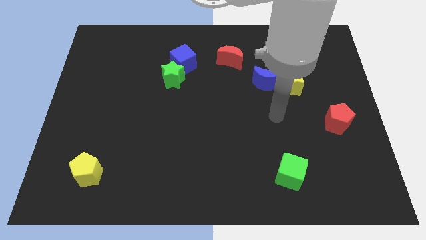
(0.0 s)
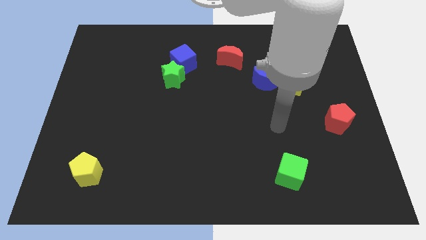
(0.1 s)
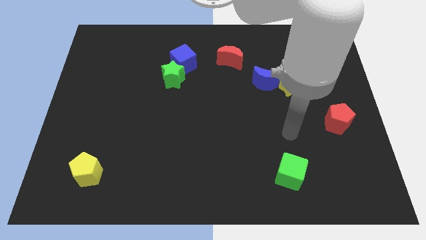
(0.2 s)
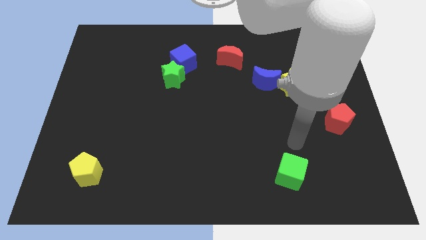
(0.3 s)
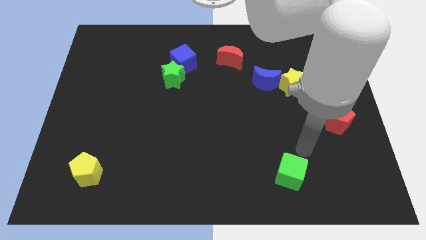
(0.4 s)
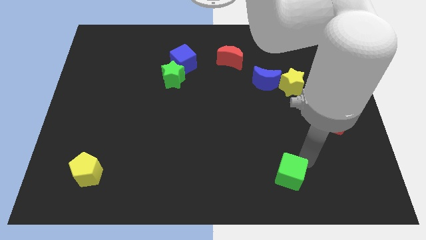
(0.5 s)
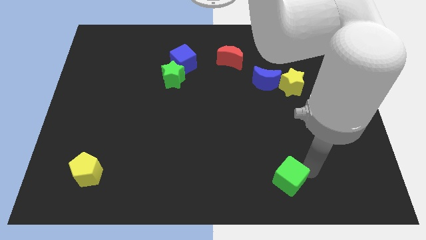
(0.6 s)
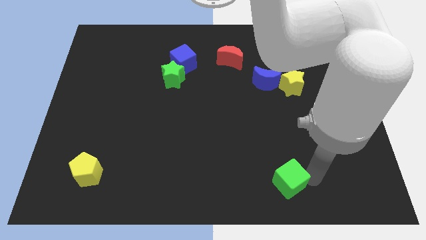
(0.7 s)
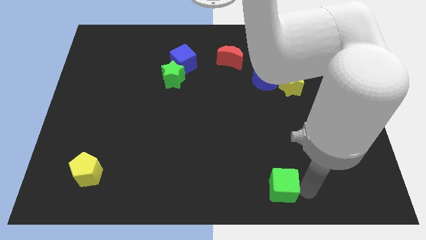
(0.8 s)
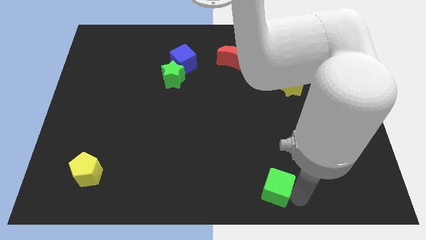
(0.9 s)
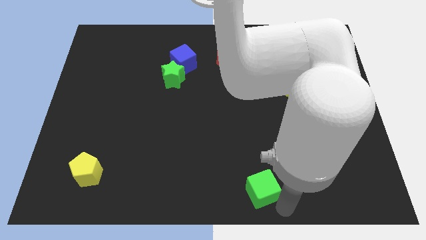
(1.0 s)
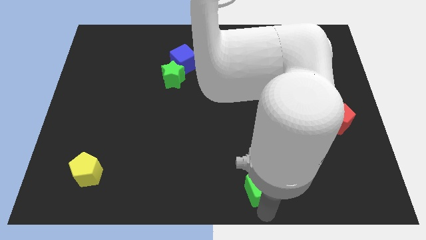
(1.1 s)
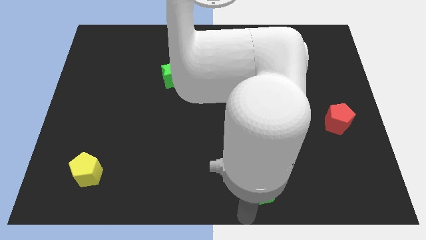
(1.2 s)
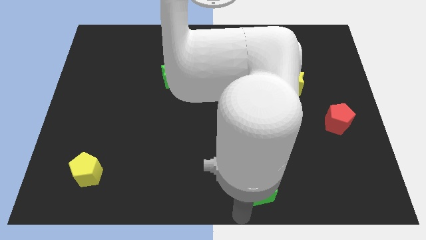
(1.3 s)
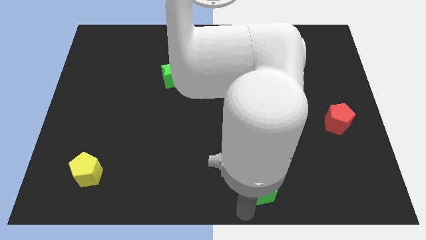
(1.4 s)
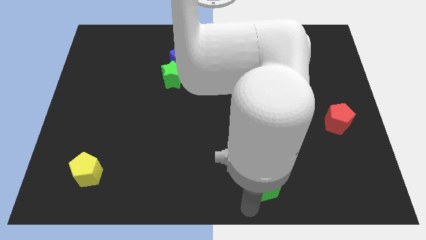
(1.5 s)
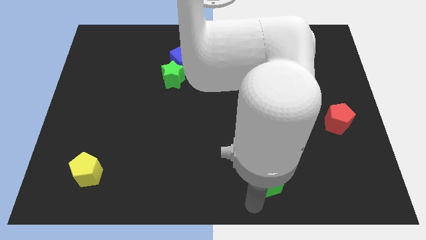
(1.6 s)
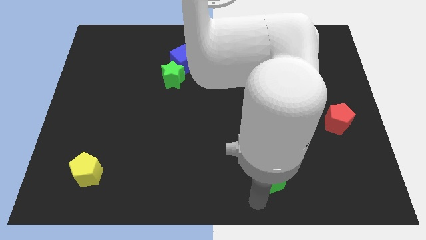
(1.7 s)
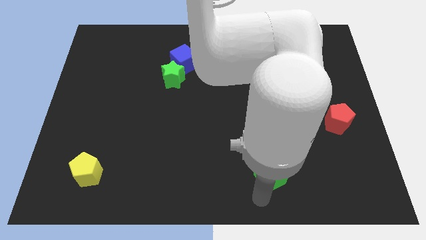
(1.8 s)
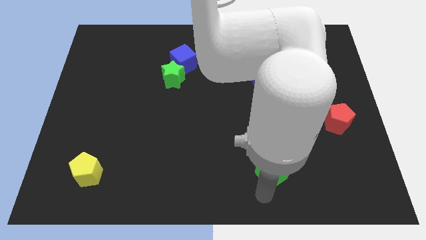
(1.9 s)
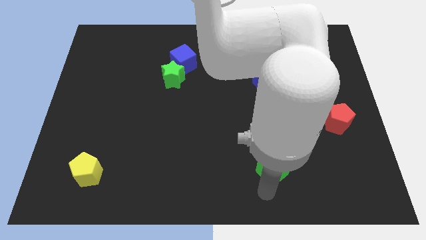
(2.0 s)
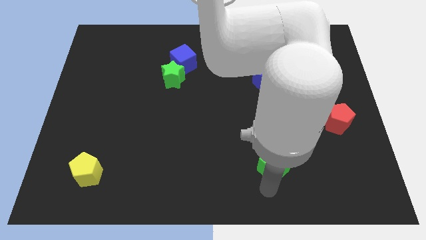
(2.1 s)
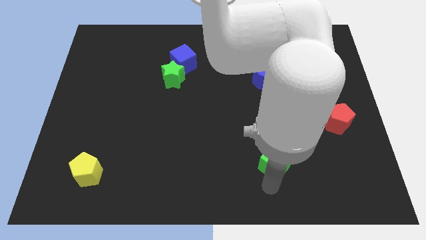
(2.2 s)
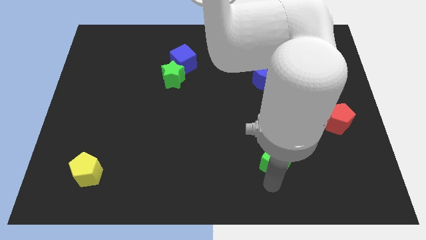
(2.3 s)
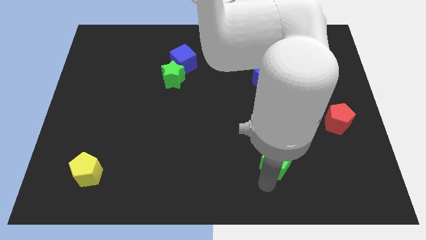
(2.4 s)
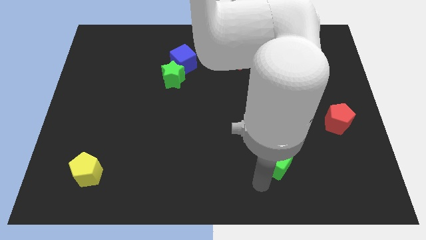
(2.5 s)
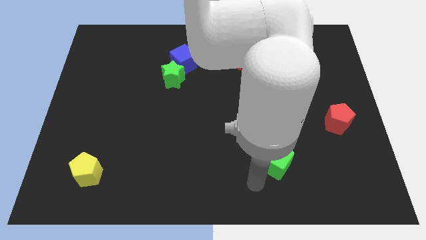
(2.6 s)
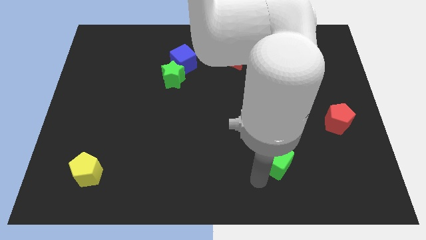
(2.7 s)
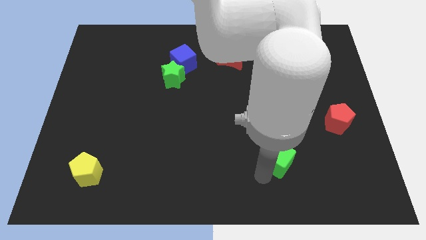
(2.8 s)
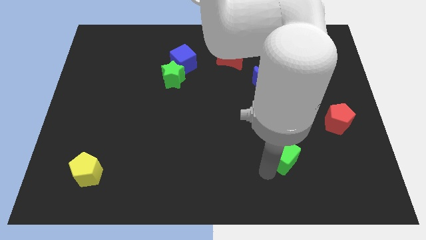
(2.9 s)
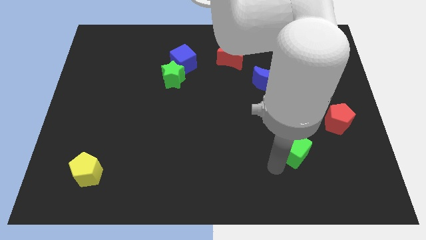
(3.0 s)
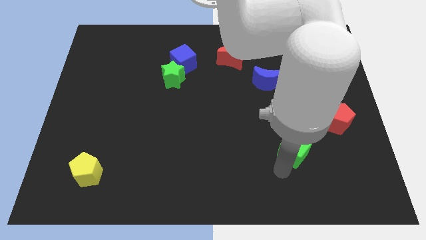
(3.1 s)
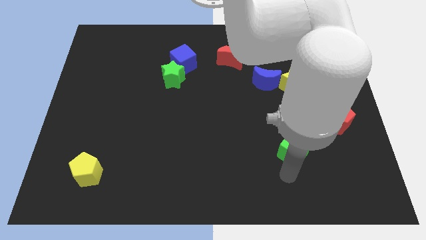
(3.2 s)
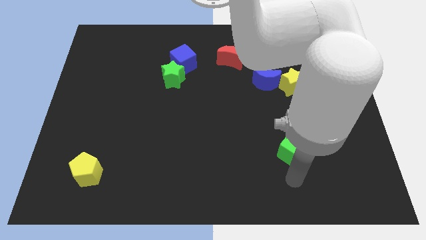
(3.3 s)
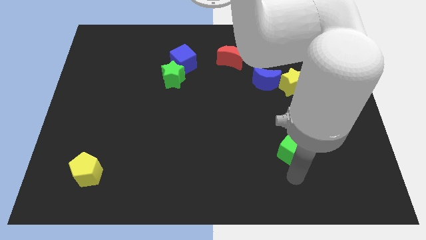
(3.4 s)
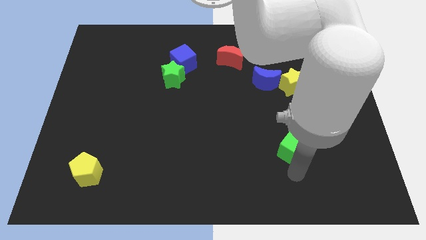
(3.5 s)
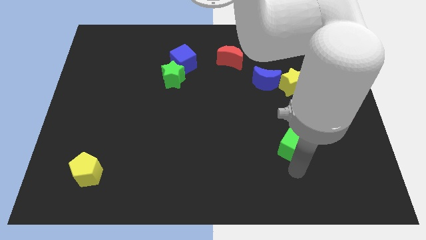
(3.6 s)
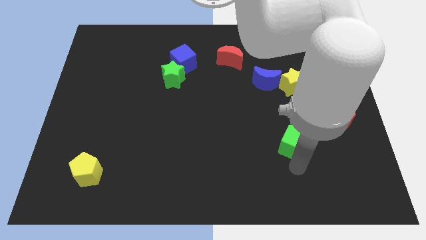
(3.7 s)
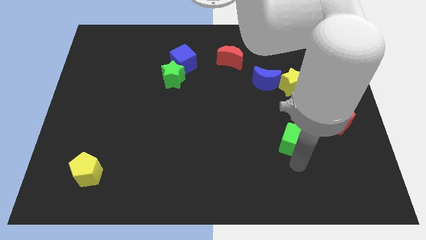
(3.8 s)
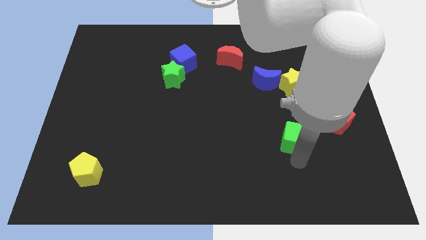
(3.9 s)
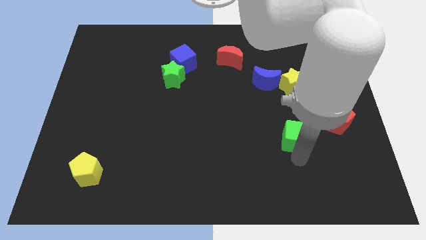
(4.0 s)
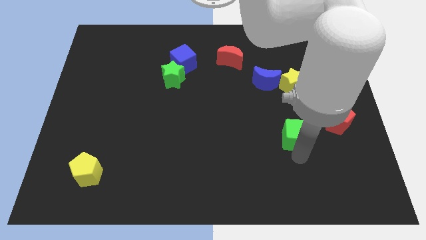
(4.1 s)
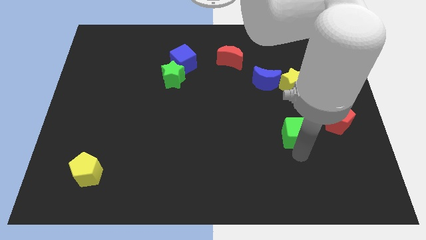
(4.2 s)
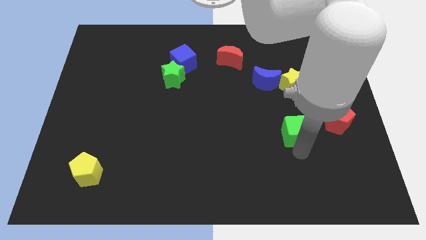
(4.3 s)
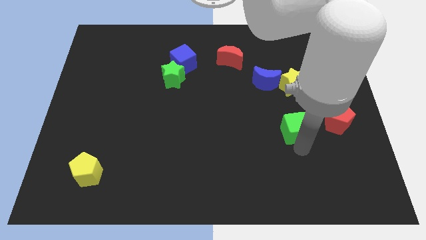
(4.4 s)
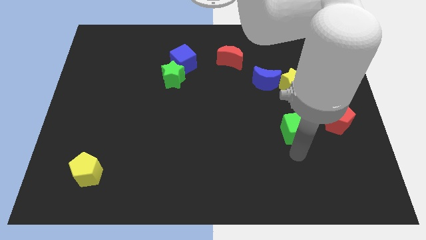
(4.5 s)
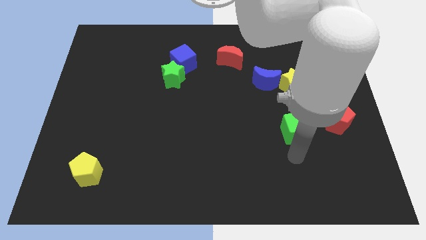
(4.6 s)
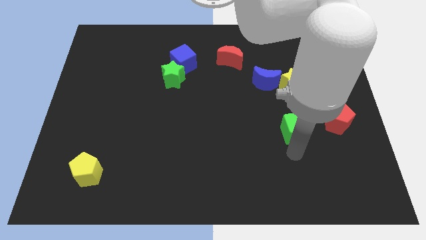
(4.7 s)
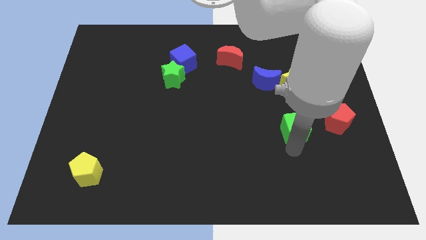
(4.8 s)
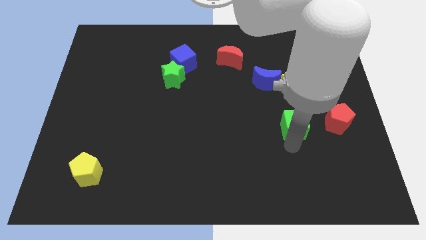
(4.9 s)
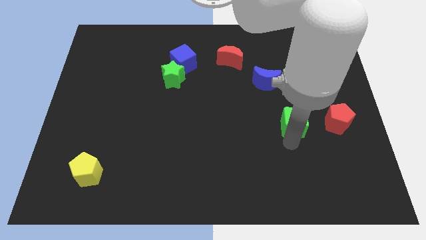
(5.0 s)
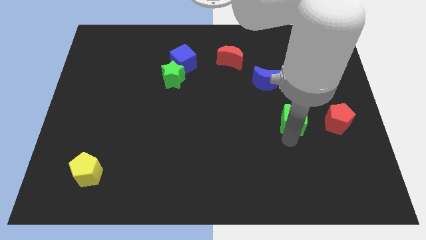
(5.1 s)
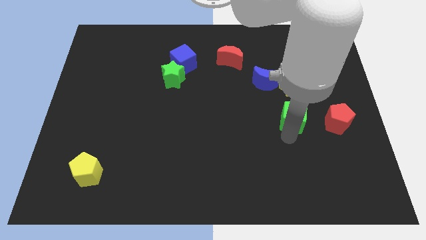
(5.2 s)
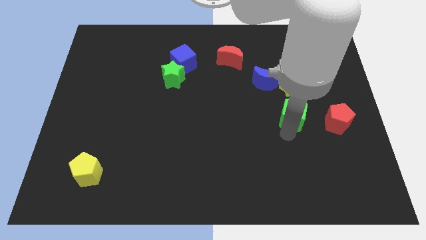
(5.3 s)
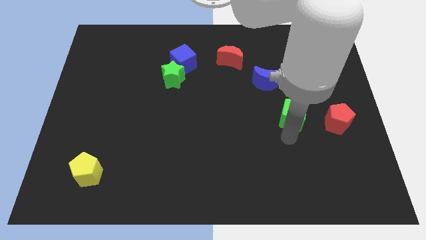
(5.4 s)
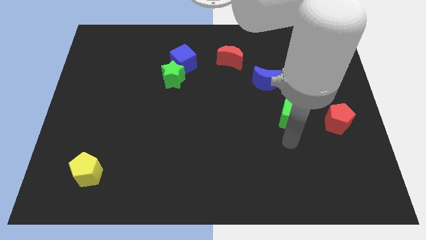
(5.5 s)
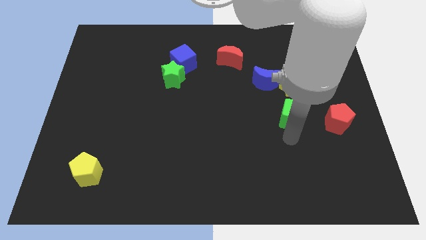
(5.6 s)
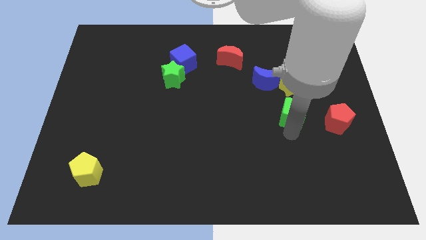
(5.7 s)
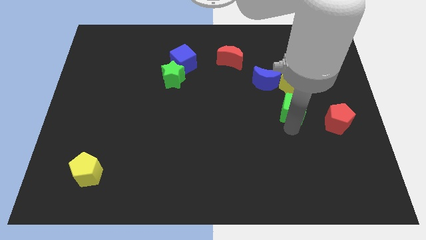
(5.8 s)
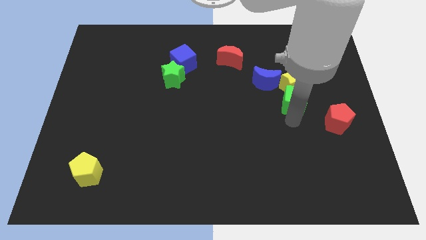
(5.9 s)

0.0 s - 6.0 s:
move the green cube next to the yellow star

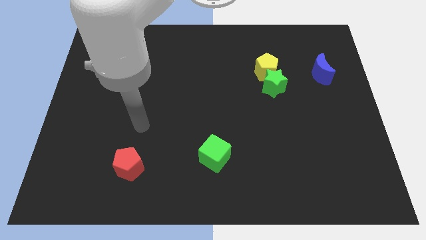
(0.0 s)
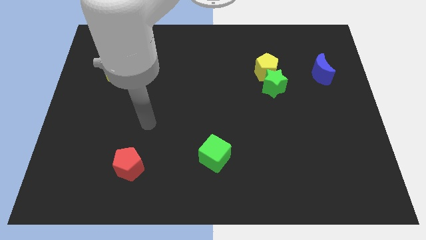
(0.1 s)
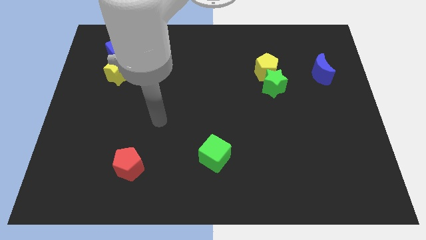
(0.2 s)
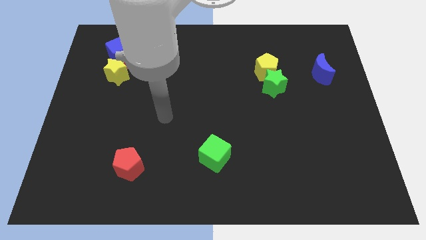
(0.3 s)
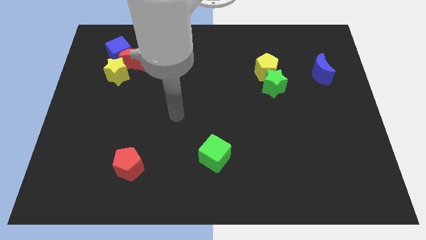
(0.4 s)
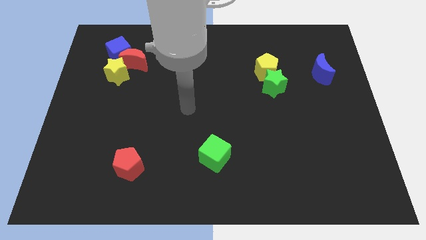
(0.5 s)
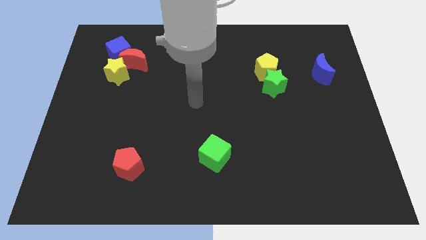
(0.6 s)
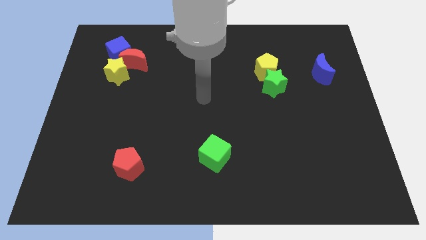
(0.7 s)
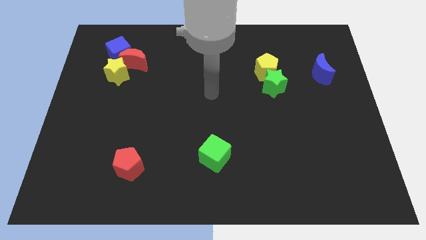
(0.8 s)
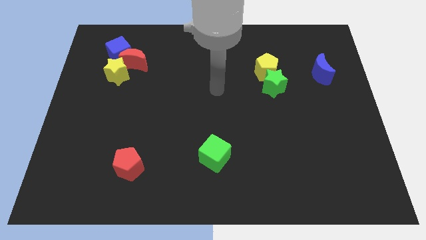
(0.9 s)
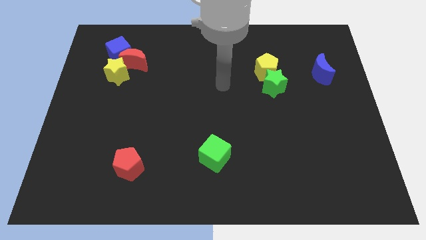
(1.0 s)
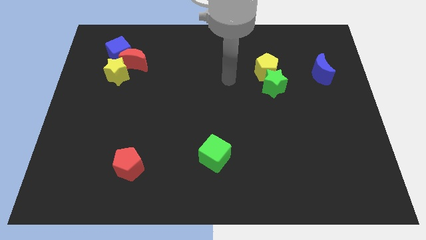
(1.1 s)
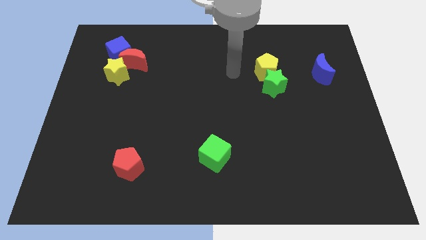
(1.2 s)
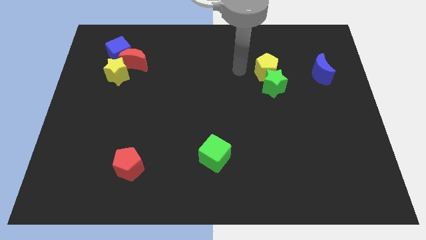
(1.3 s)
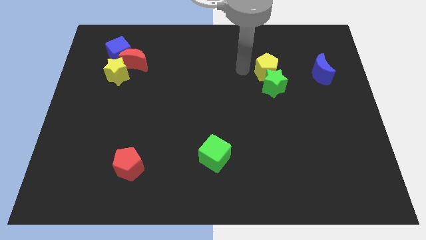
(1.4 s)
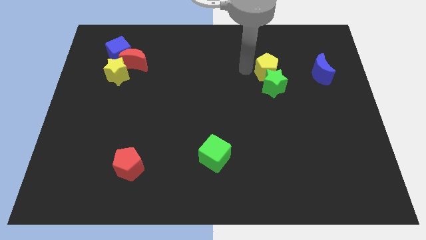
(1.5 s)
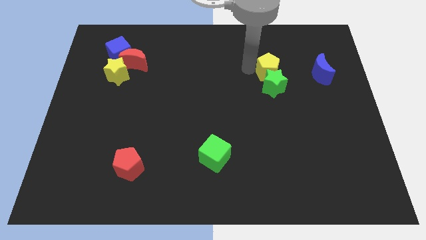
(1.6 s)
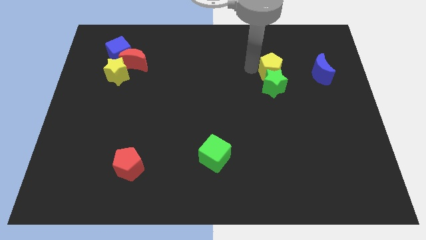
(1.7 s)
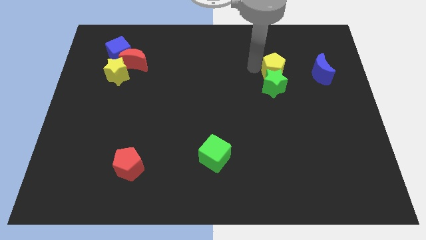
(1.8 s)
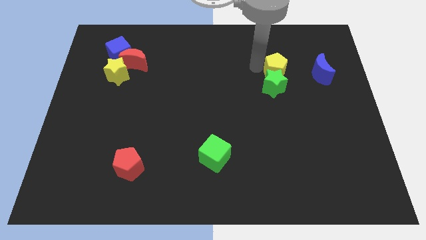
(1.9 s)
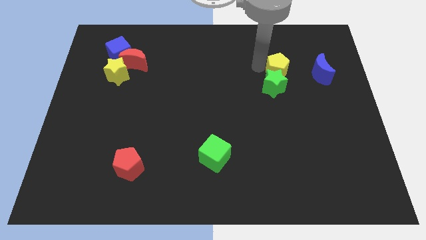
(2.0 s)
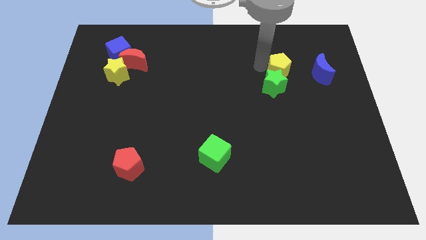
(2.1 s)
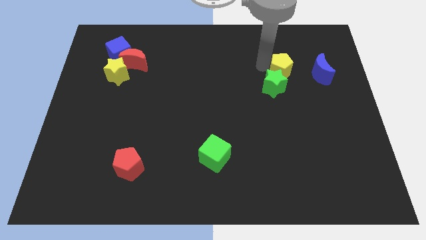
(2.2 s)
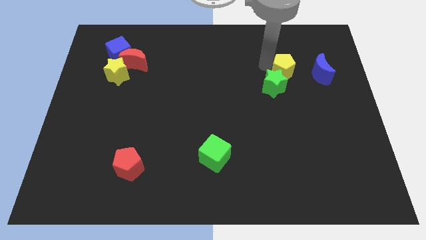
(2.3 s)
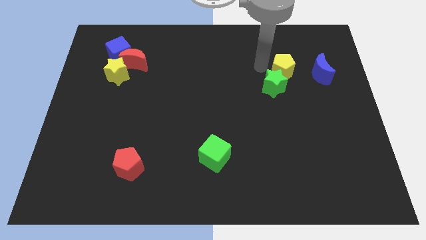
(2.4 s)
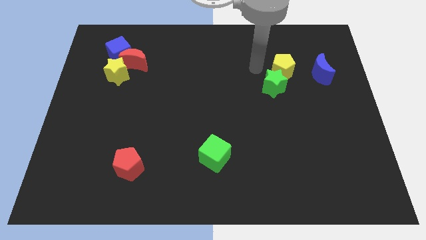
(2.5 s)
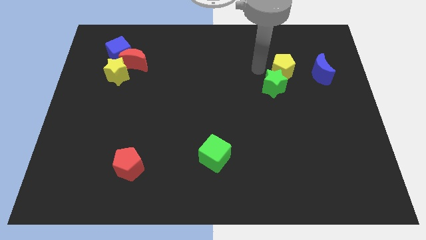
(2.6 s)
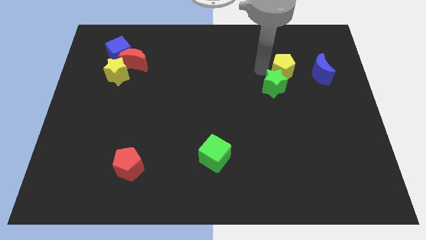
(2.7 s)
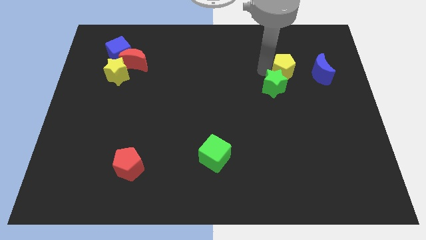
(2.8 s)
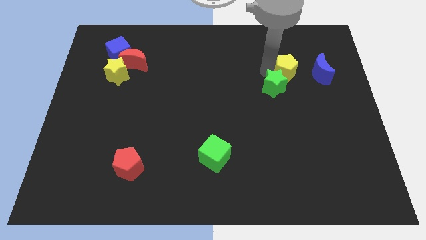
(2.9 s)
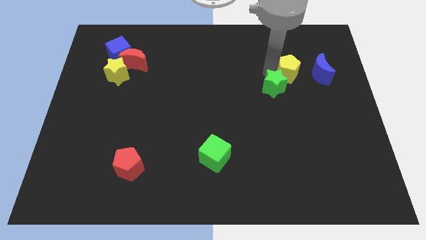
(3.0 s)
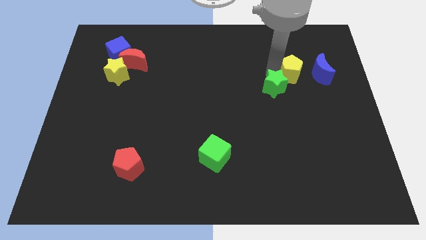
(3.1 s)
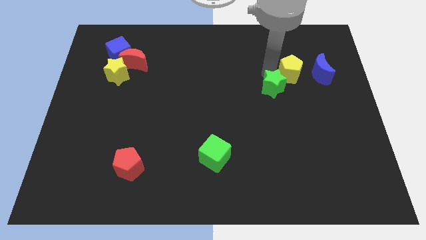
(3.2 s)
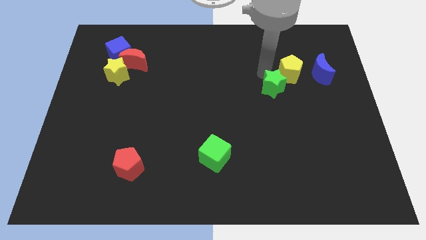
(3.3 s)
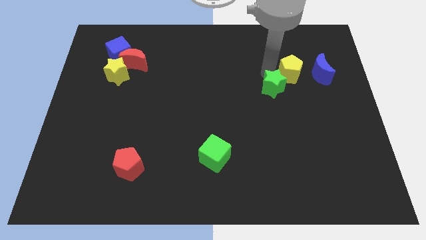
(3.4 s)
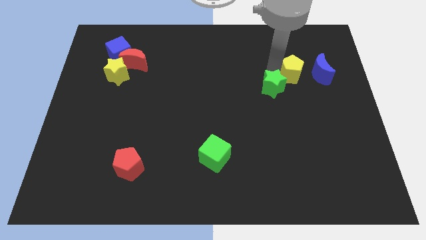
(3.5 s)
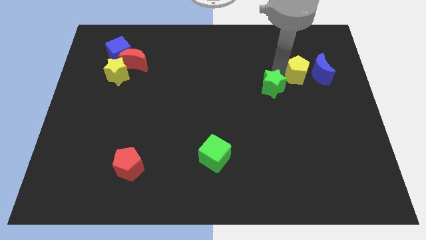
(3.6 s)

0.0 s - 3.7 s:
push the yellow pentagon towards the blue moon
